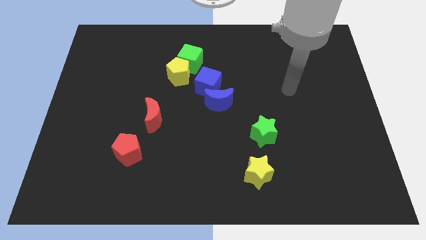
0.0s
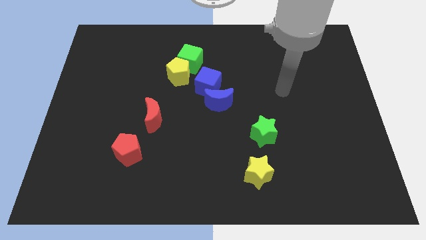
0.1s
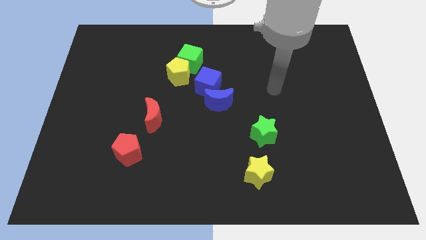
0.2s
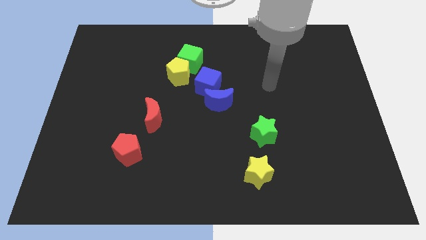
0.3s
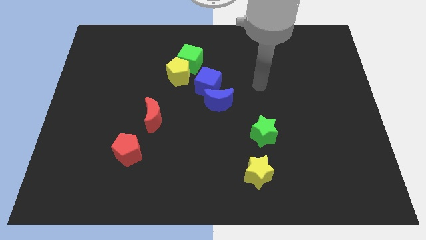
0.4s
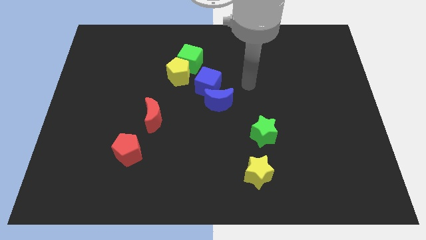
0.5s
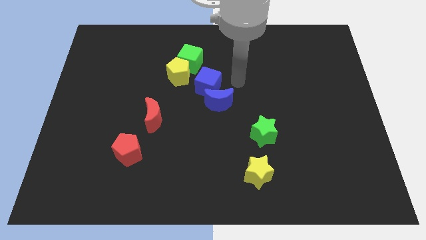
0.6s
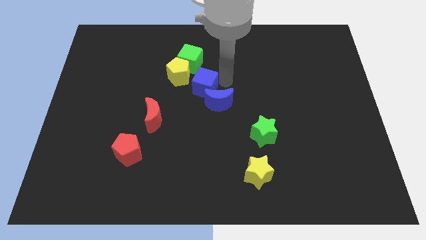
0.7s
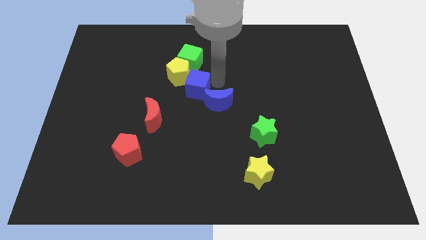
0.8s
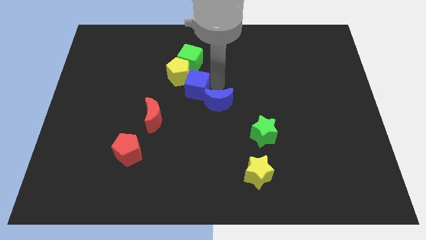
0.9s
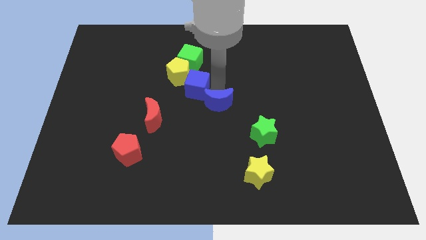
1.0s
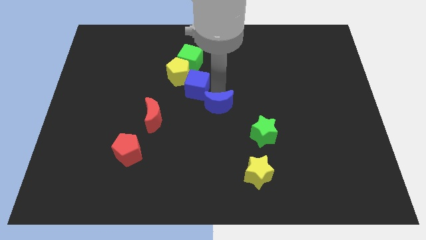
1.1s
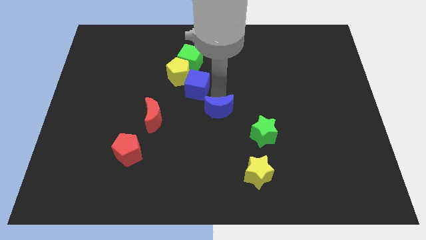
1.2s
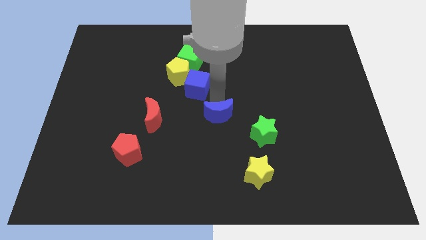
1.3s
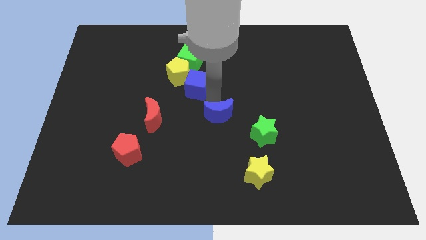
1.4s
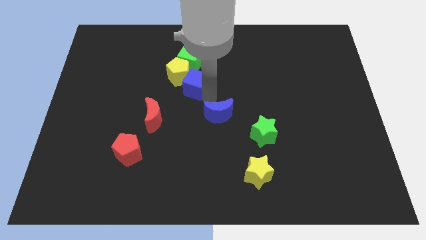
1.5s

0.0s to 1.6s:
separate the blue moon from the blue cube

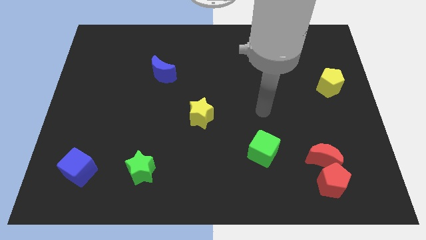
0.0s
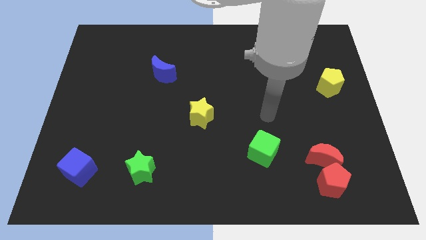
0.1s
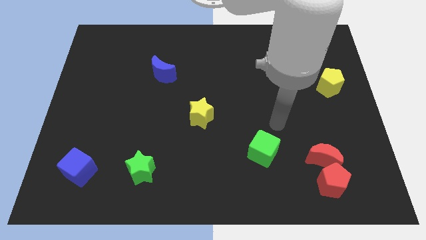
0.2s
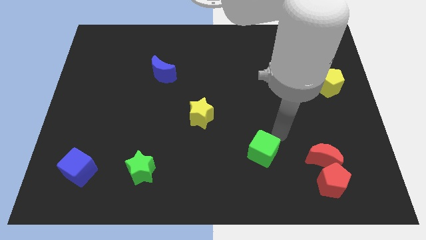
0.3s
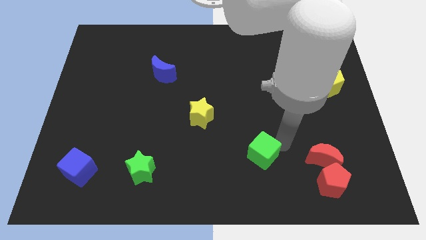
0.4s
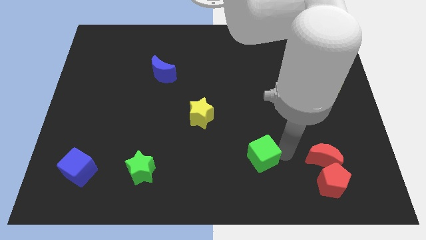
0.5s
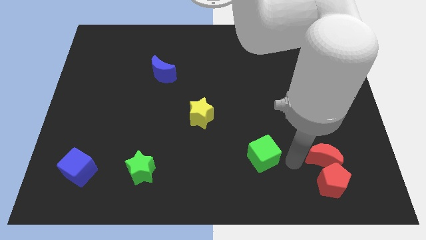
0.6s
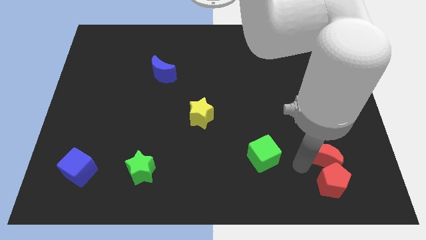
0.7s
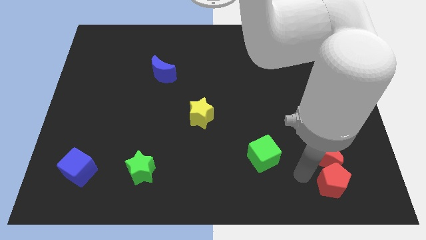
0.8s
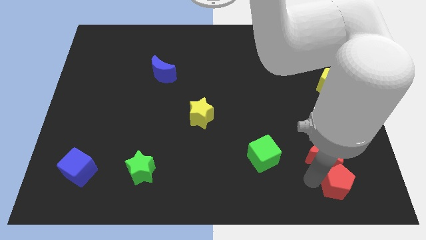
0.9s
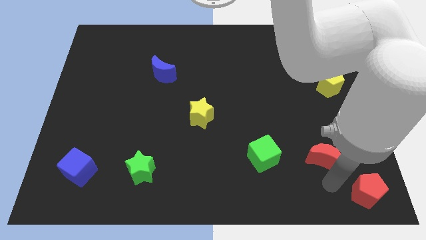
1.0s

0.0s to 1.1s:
separate the red moon from the red pentagon

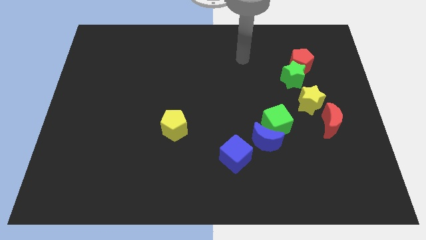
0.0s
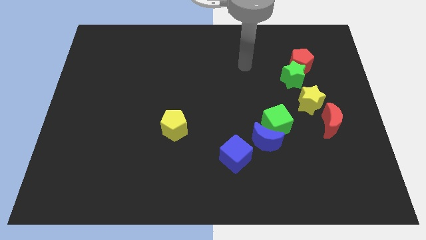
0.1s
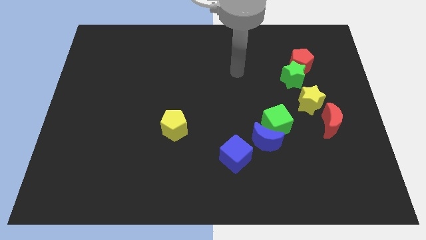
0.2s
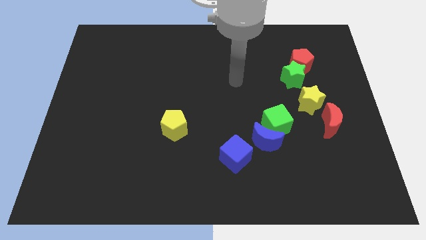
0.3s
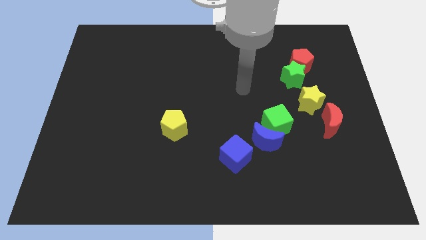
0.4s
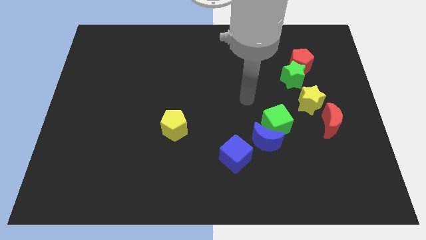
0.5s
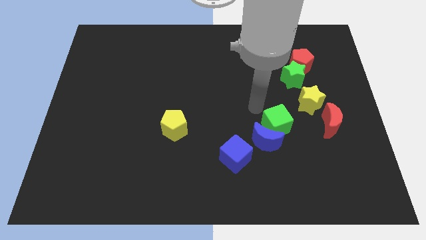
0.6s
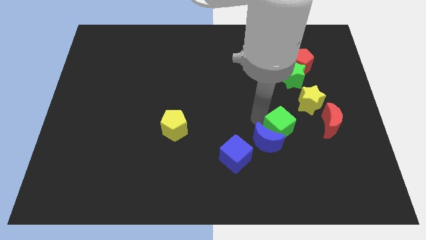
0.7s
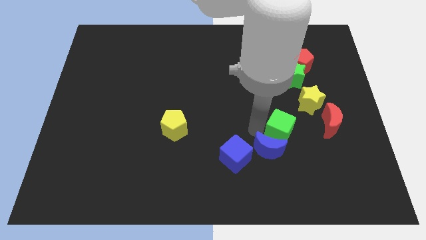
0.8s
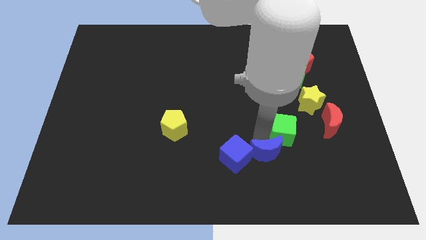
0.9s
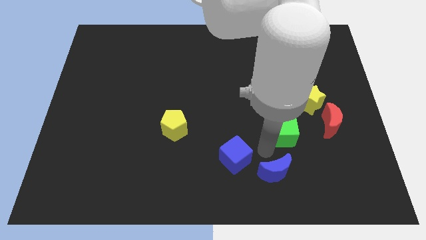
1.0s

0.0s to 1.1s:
separate the green cube from the blue moon

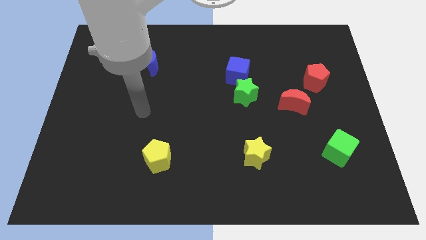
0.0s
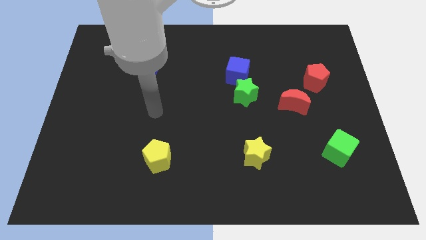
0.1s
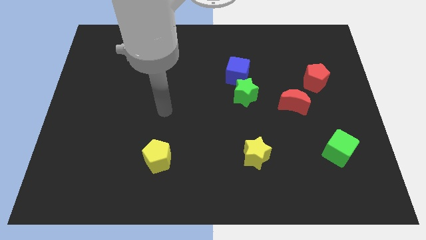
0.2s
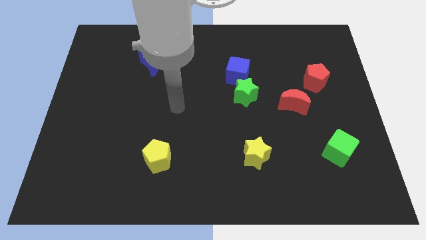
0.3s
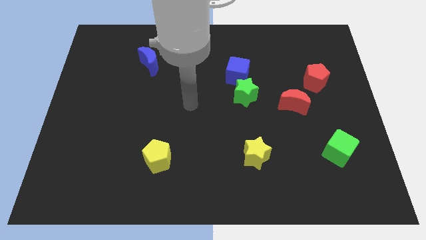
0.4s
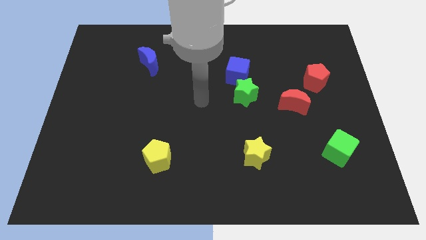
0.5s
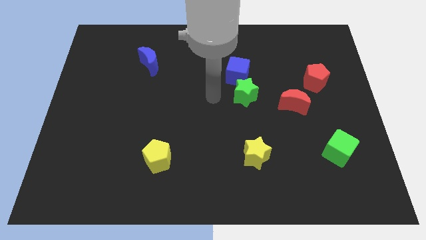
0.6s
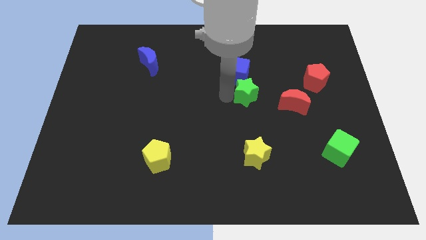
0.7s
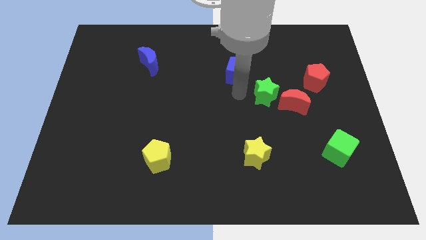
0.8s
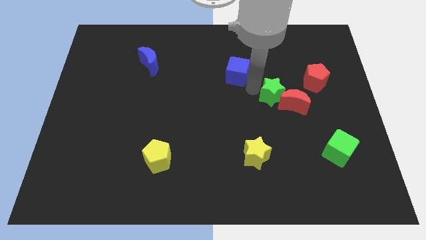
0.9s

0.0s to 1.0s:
move the blue cube away from the green star

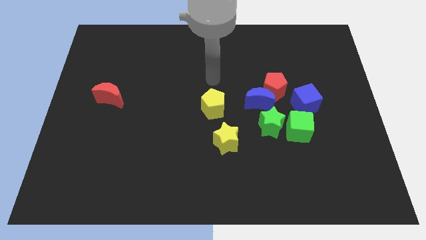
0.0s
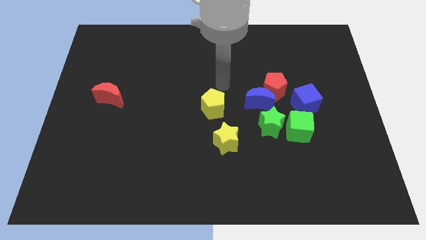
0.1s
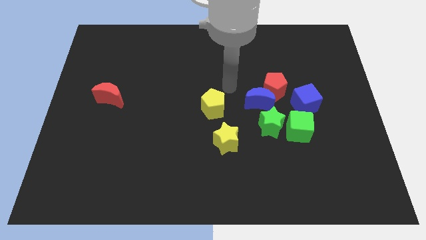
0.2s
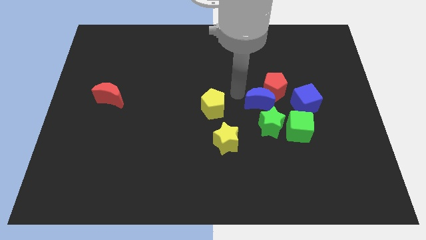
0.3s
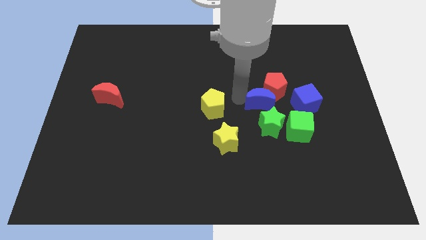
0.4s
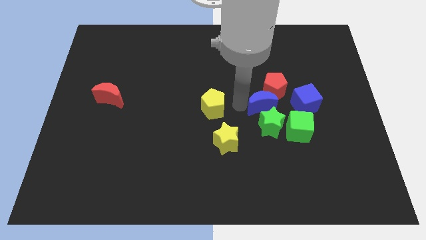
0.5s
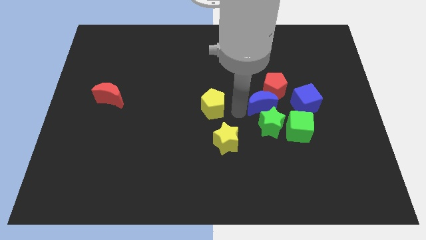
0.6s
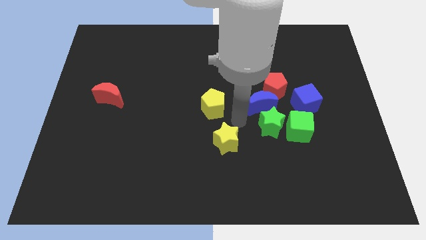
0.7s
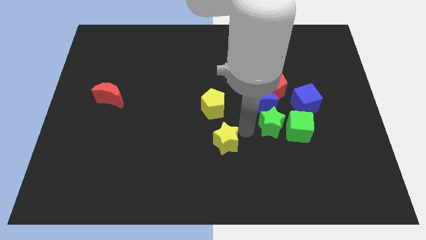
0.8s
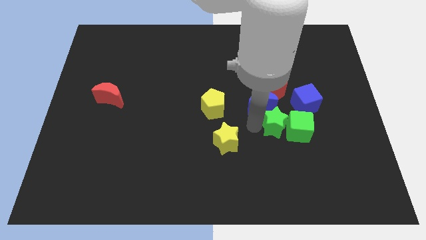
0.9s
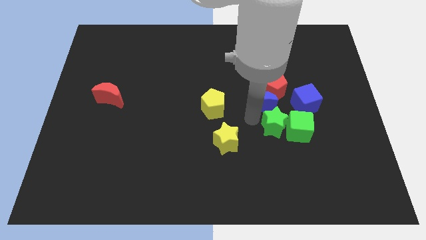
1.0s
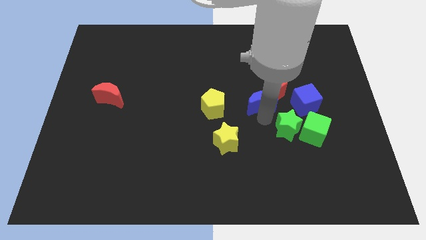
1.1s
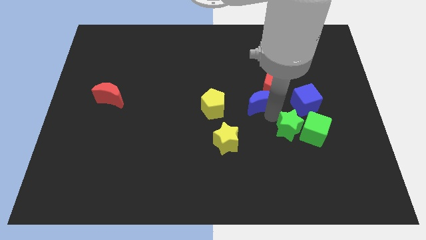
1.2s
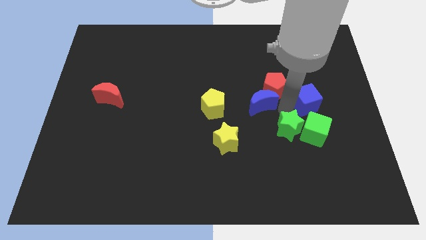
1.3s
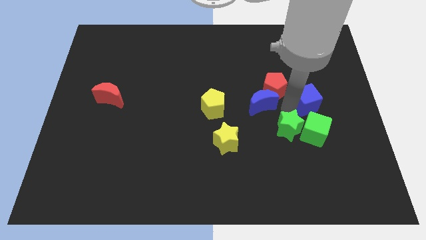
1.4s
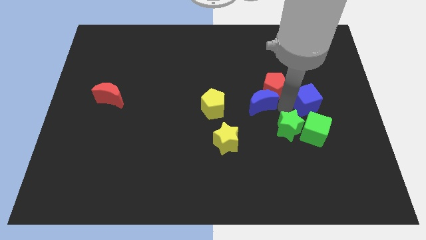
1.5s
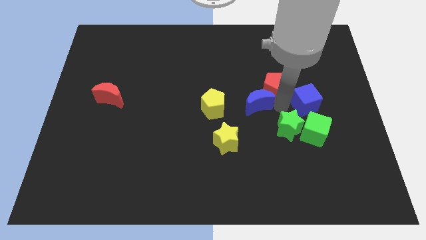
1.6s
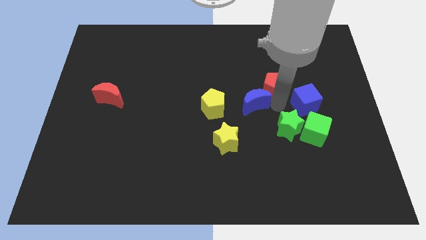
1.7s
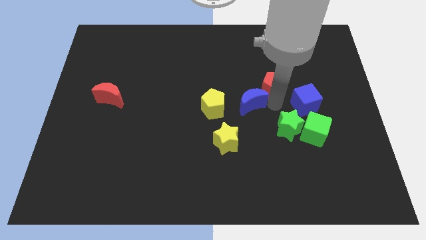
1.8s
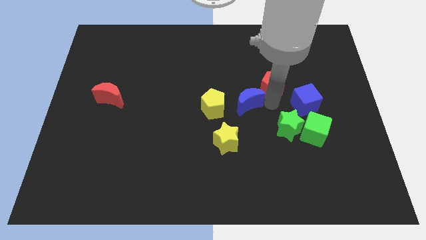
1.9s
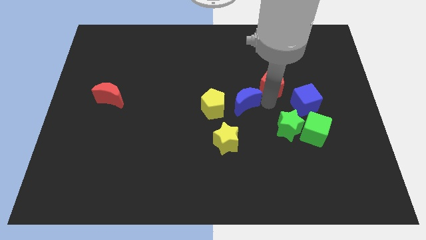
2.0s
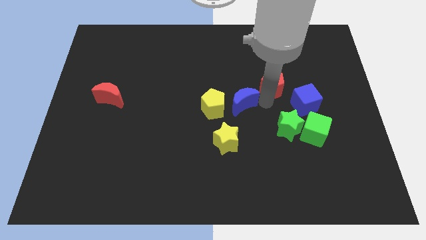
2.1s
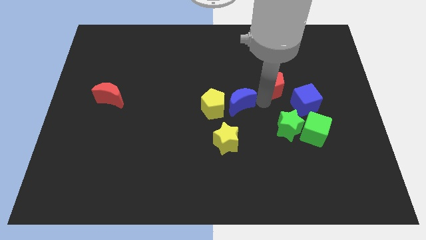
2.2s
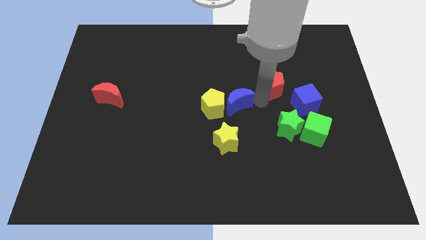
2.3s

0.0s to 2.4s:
pull the blue moon apart from the red pentagon and green star

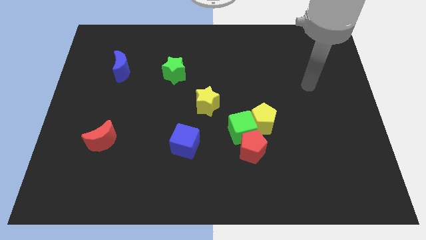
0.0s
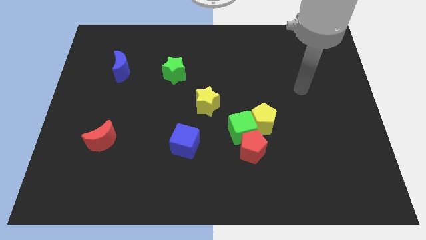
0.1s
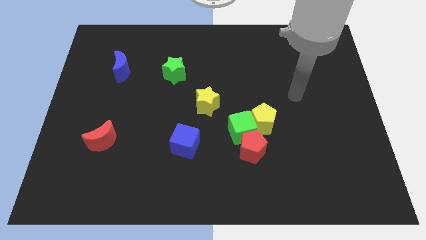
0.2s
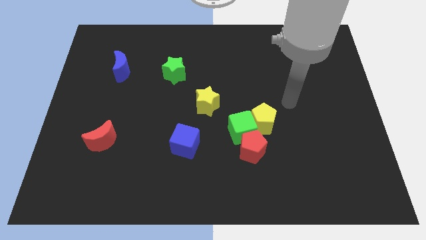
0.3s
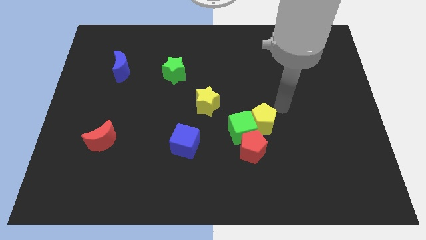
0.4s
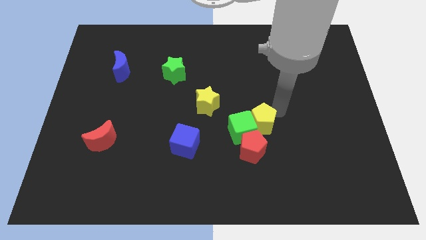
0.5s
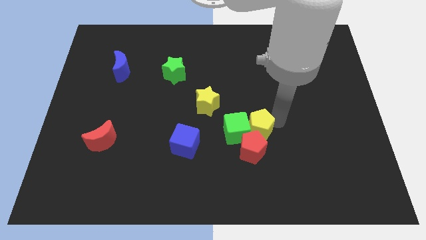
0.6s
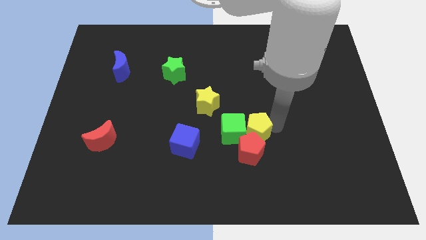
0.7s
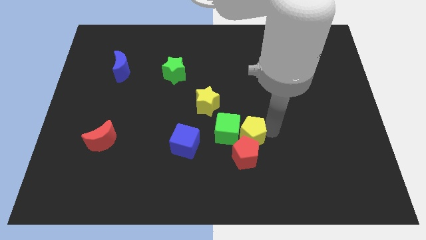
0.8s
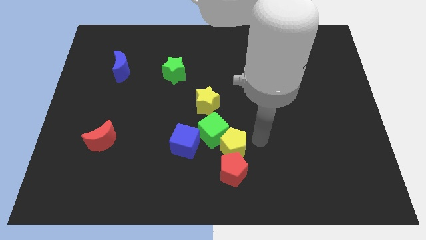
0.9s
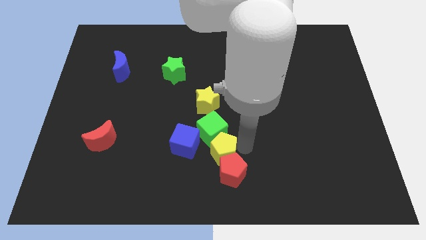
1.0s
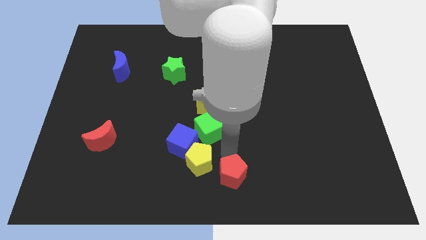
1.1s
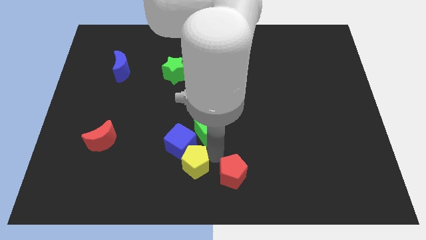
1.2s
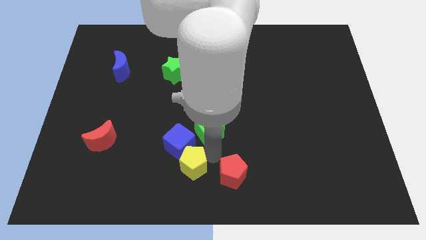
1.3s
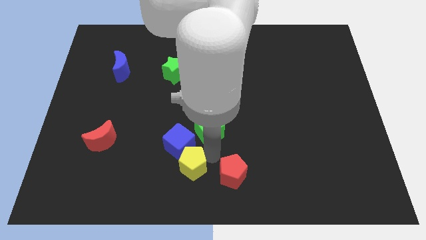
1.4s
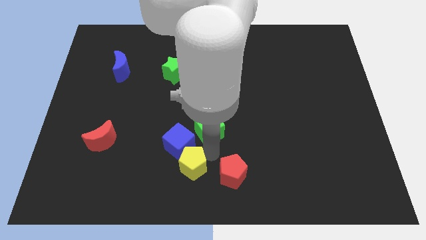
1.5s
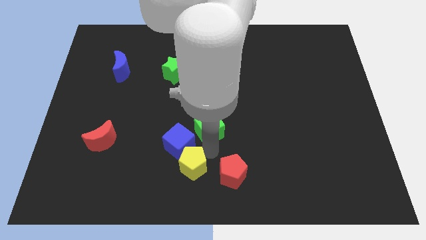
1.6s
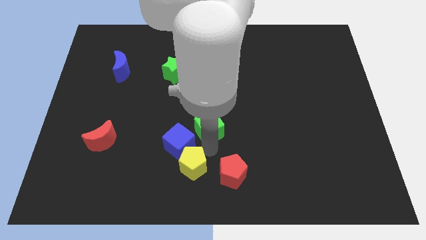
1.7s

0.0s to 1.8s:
move the green cube away from the yellow pentagon and red pentagon

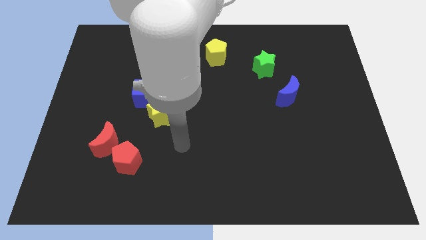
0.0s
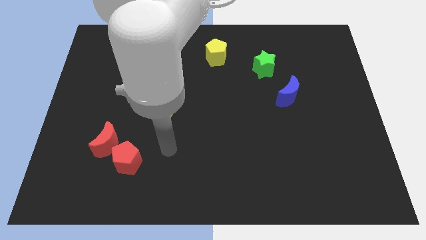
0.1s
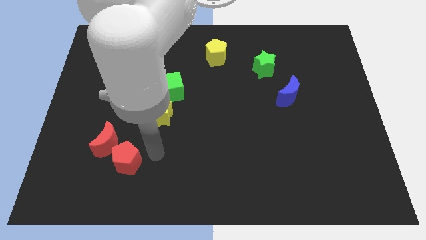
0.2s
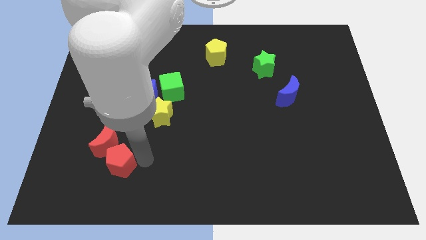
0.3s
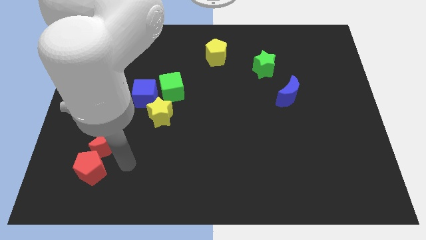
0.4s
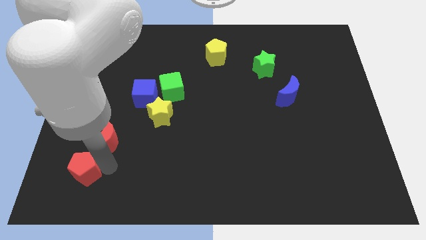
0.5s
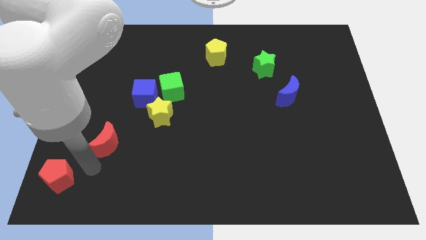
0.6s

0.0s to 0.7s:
move the red moon away from the red pentagon
